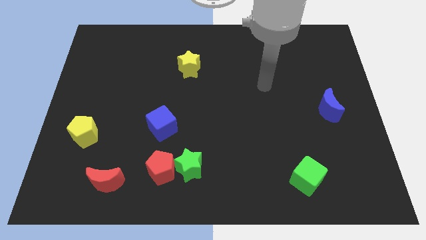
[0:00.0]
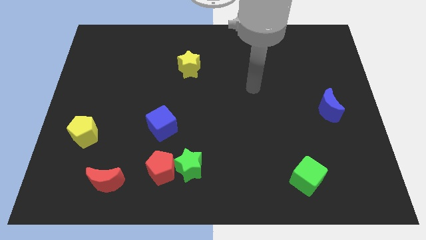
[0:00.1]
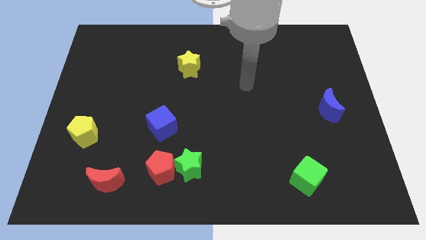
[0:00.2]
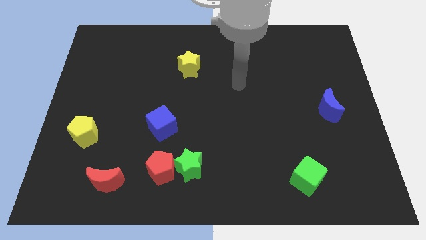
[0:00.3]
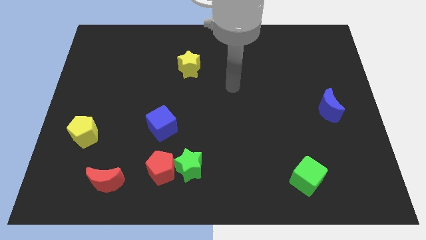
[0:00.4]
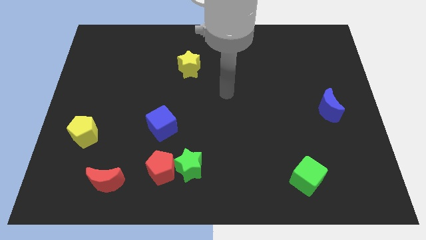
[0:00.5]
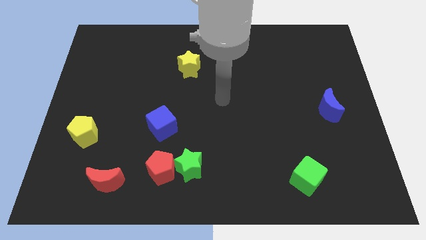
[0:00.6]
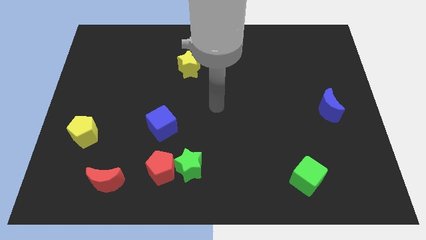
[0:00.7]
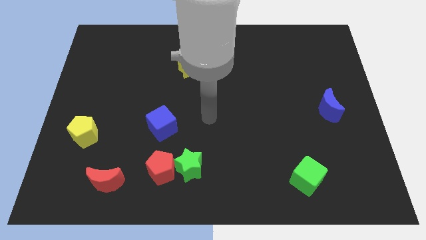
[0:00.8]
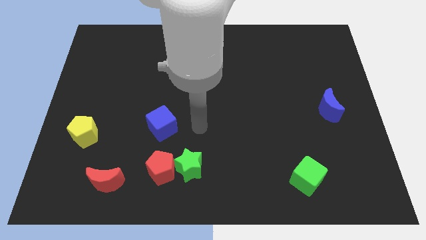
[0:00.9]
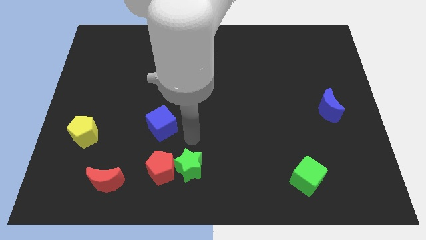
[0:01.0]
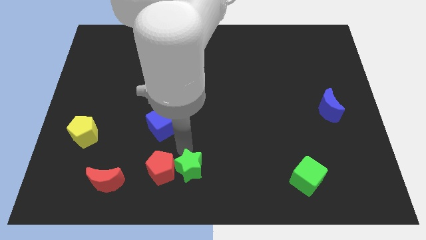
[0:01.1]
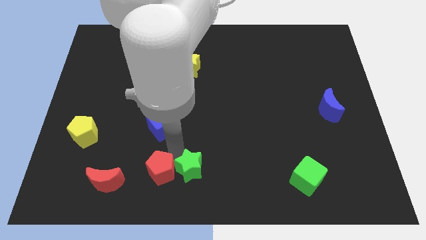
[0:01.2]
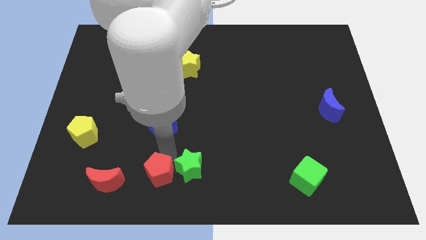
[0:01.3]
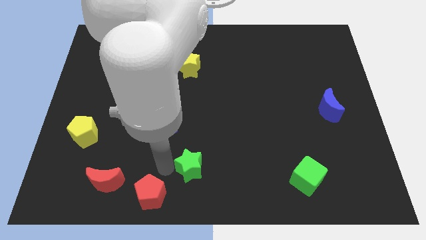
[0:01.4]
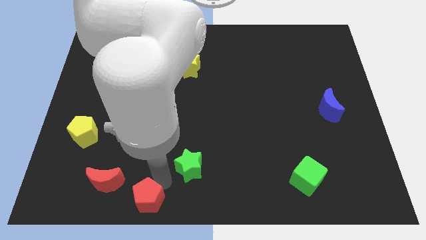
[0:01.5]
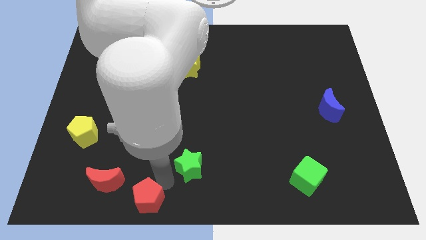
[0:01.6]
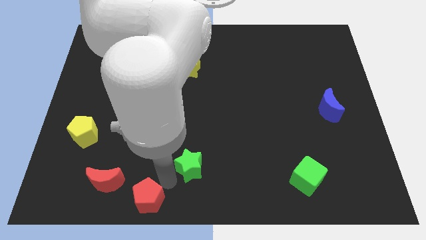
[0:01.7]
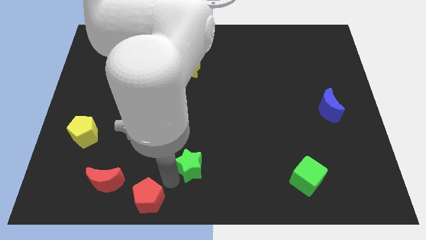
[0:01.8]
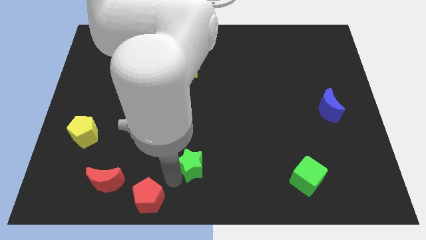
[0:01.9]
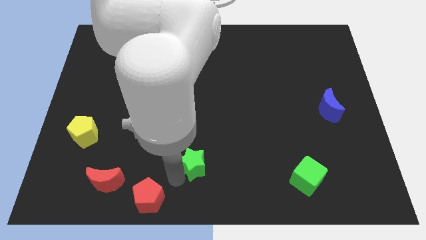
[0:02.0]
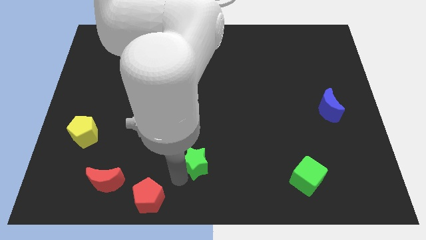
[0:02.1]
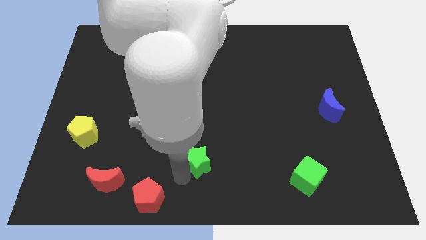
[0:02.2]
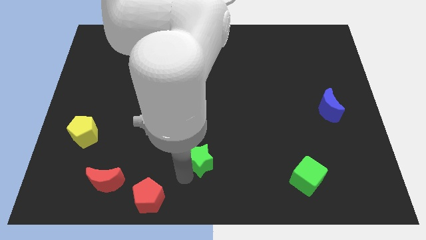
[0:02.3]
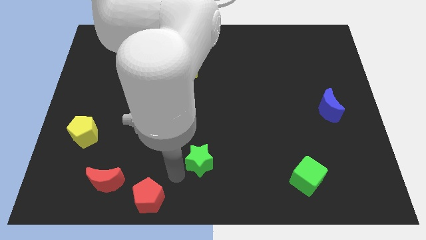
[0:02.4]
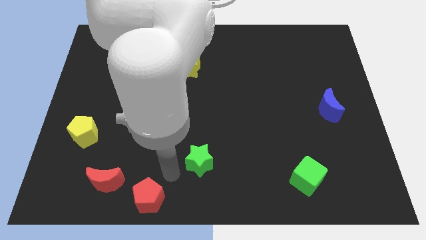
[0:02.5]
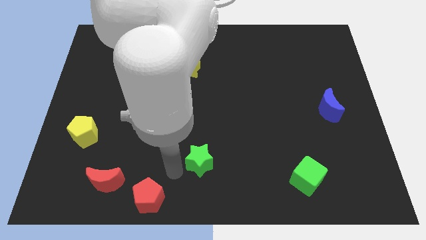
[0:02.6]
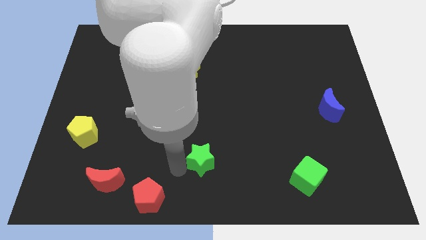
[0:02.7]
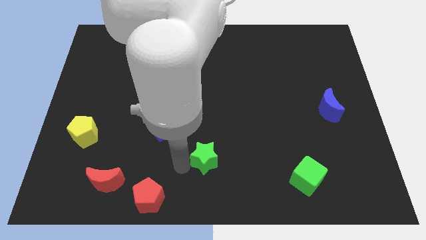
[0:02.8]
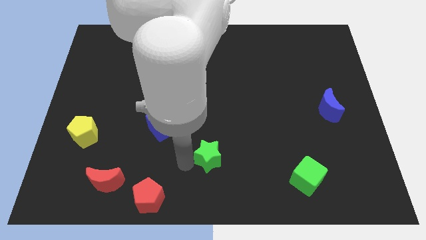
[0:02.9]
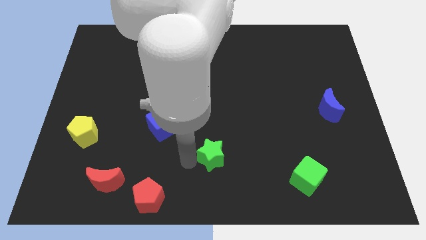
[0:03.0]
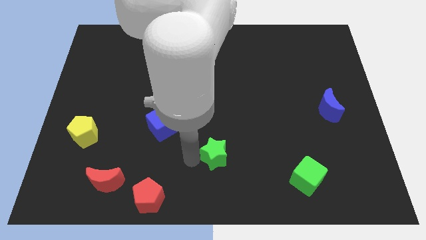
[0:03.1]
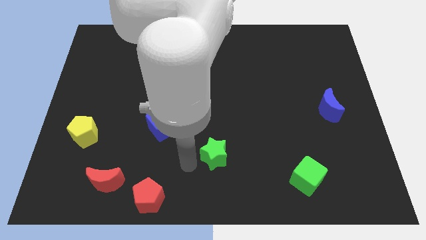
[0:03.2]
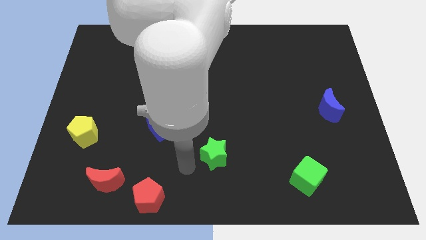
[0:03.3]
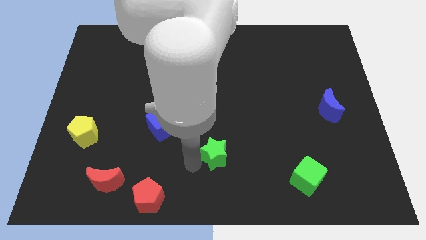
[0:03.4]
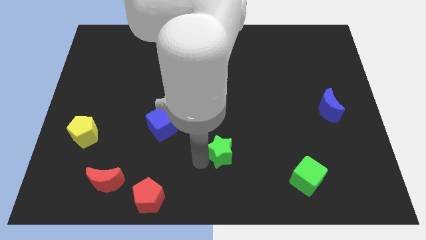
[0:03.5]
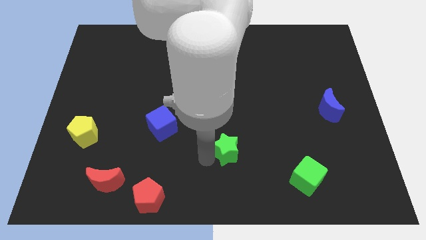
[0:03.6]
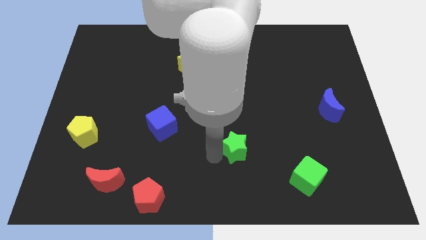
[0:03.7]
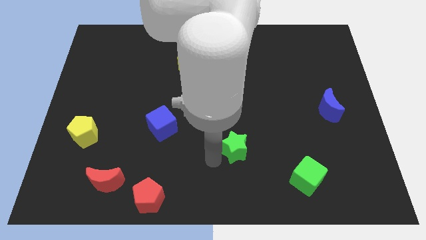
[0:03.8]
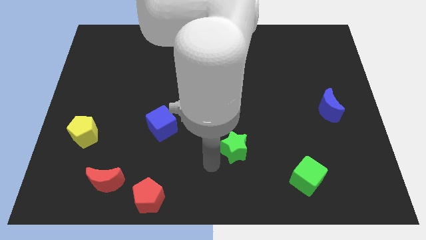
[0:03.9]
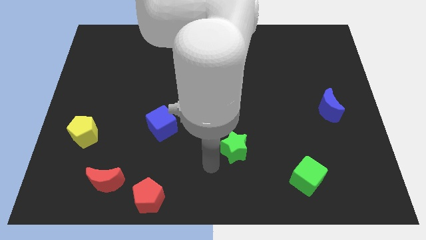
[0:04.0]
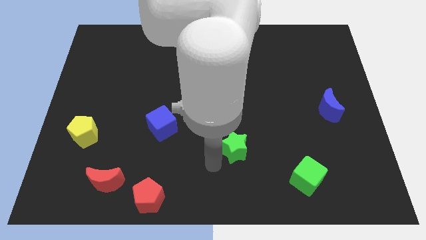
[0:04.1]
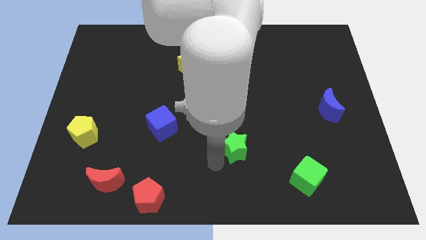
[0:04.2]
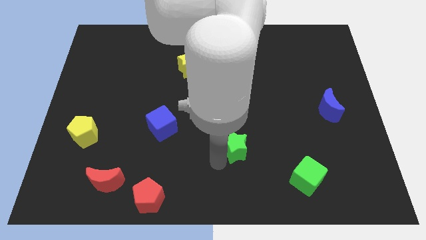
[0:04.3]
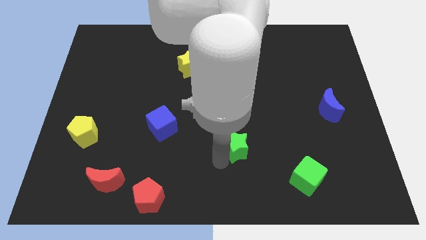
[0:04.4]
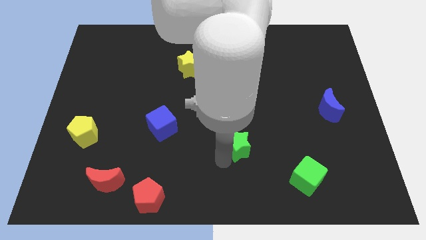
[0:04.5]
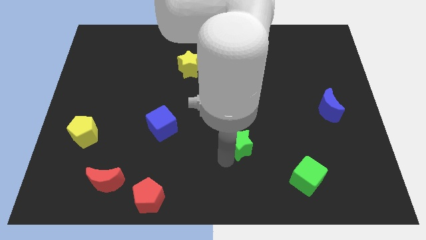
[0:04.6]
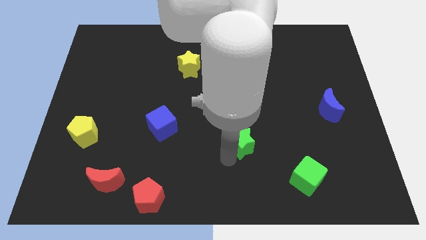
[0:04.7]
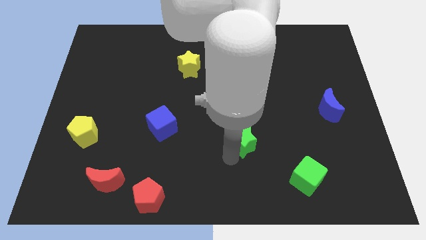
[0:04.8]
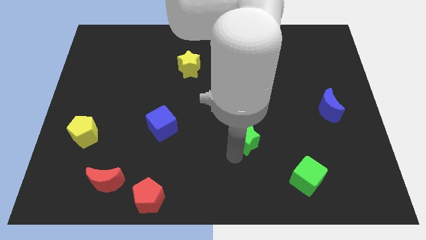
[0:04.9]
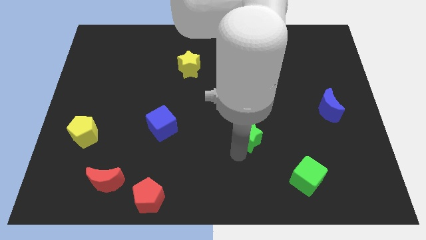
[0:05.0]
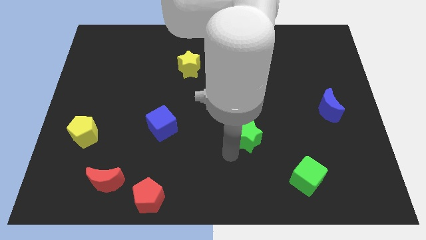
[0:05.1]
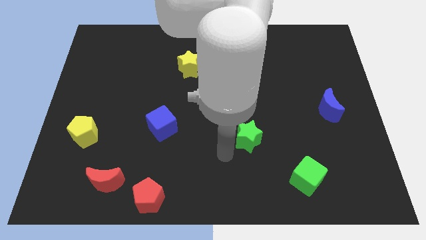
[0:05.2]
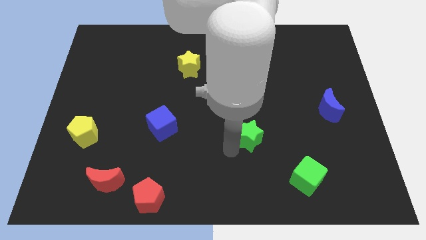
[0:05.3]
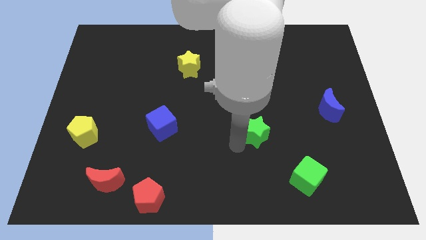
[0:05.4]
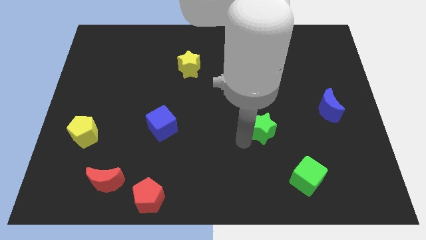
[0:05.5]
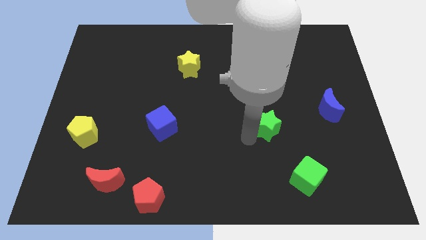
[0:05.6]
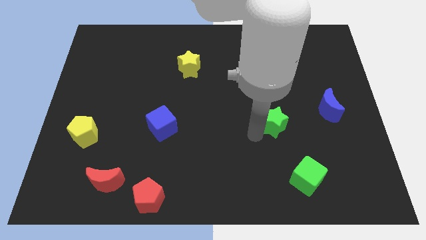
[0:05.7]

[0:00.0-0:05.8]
push the green star left of the blue moon

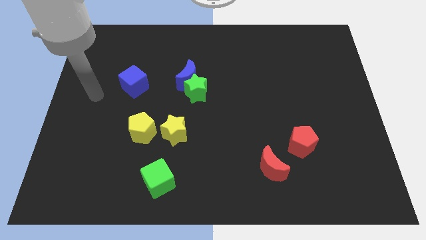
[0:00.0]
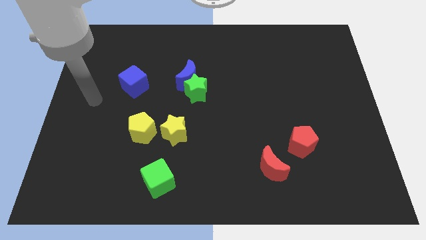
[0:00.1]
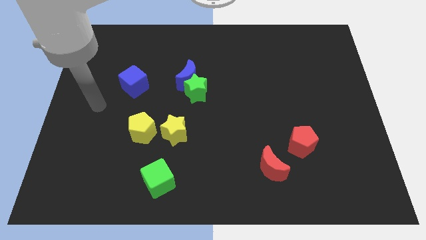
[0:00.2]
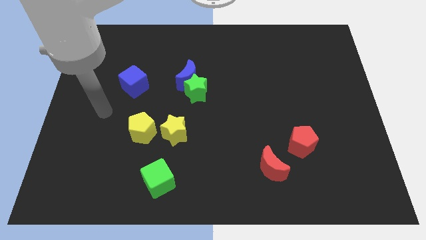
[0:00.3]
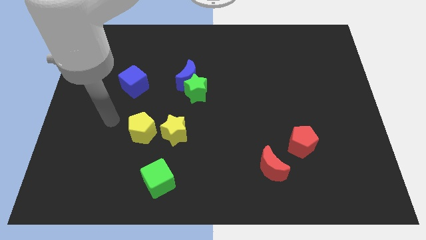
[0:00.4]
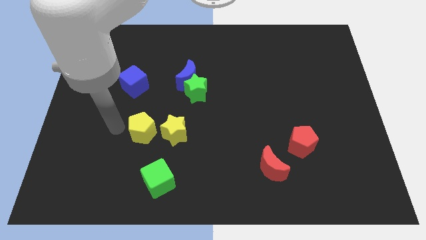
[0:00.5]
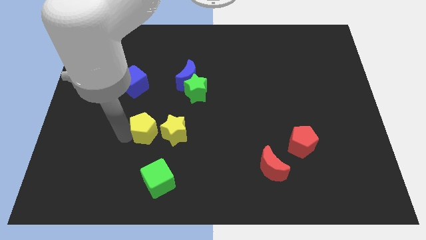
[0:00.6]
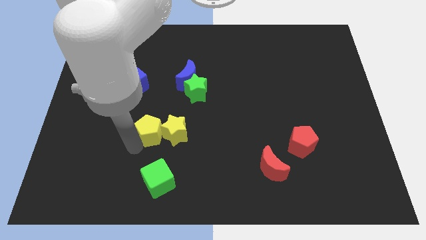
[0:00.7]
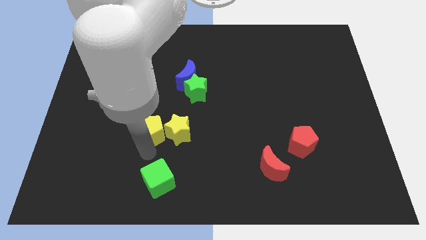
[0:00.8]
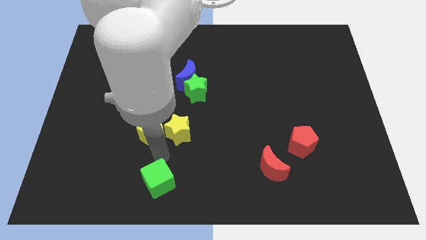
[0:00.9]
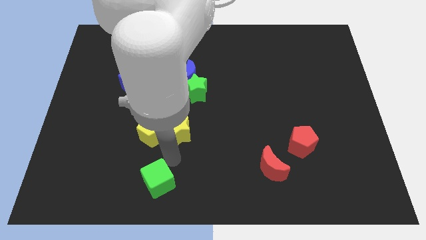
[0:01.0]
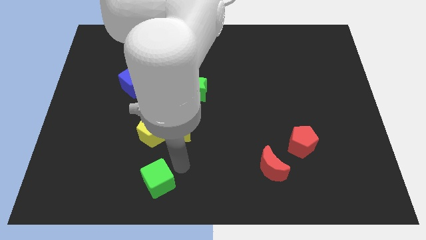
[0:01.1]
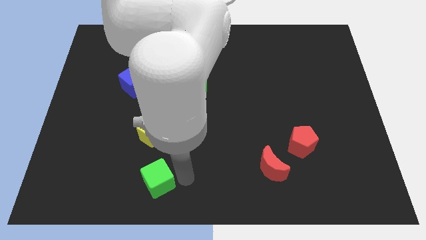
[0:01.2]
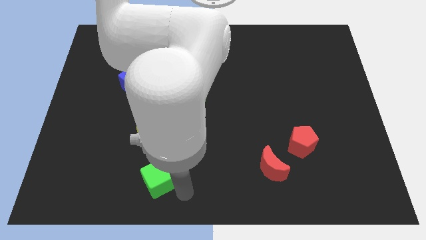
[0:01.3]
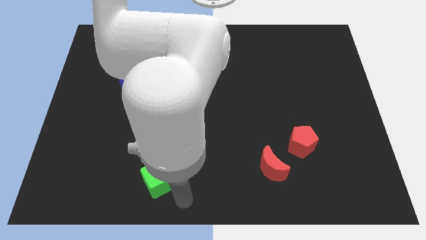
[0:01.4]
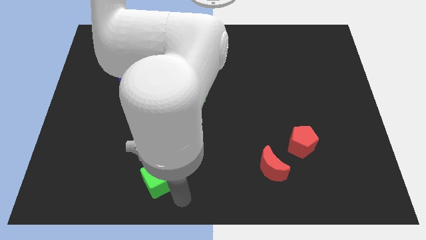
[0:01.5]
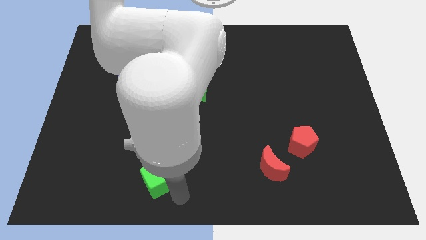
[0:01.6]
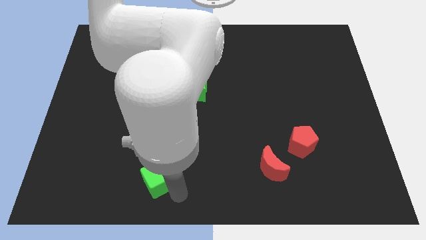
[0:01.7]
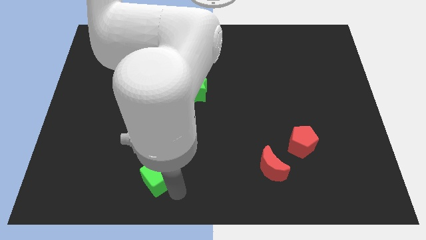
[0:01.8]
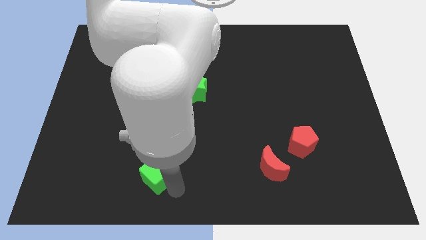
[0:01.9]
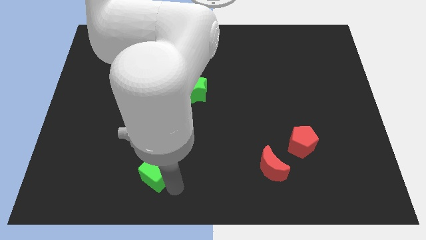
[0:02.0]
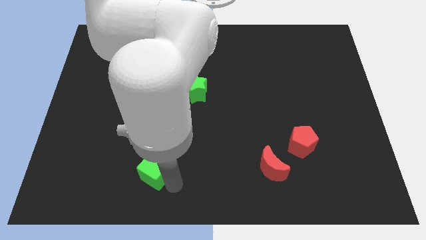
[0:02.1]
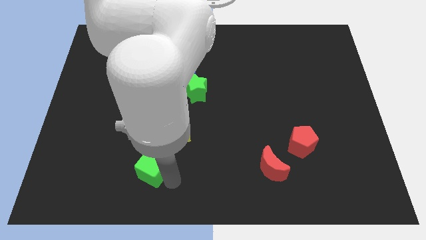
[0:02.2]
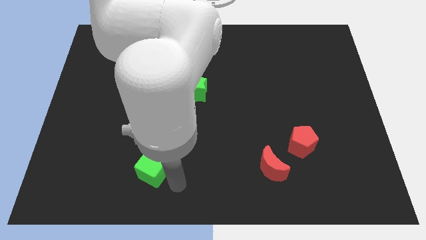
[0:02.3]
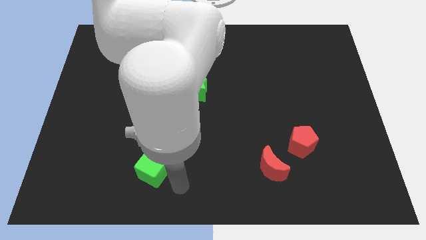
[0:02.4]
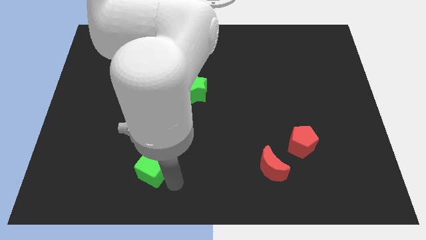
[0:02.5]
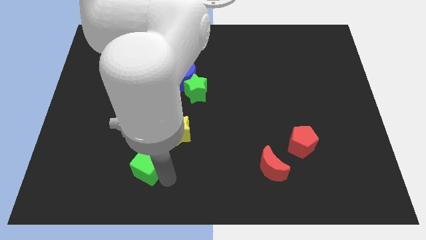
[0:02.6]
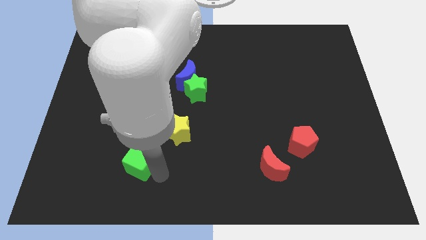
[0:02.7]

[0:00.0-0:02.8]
move the green cube to the bottom left side of the yellow pentagon

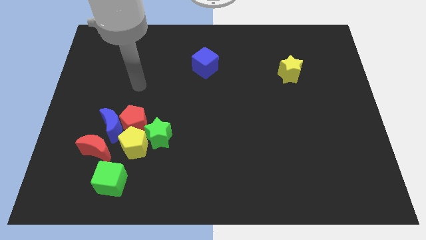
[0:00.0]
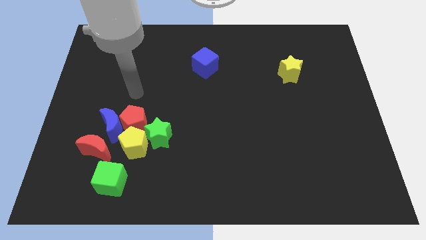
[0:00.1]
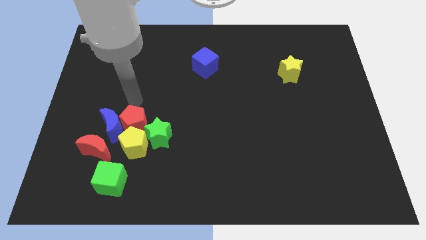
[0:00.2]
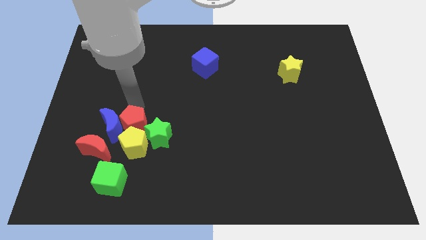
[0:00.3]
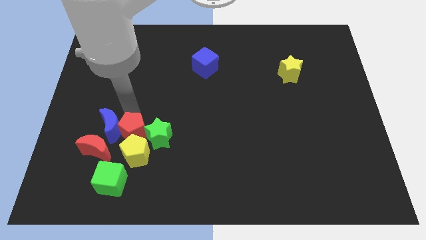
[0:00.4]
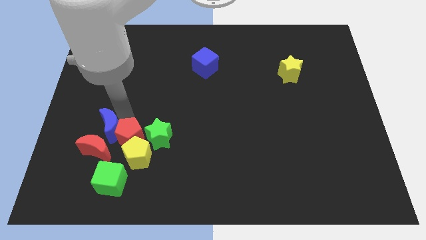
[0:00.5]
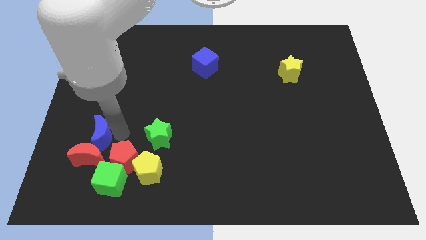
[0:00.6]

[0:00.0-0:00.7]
move the yellow pentagon just right of the green cube
